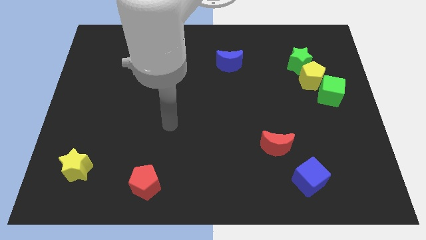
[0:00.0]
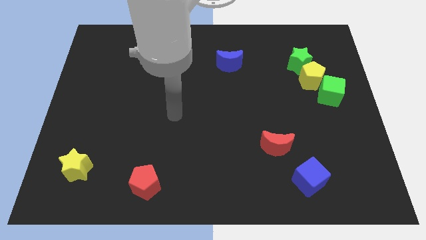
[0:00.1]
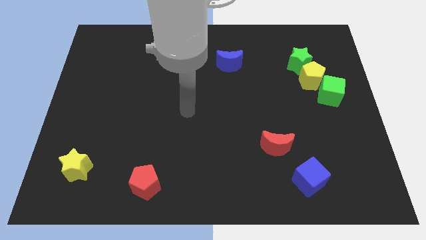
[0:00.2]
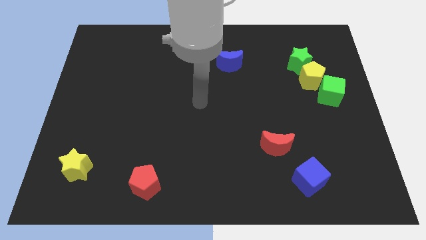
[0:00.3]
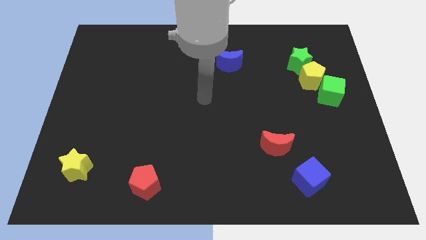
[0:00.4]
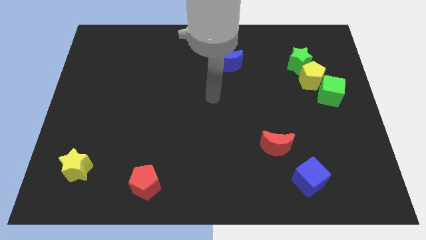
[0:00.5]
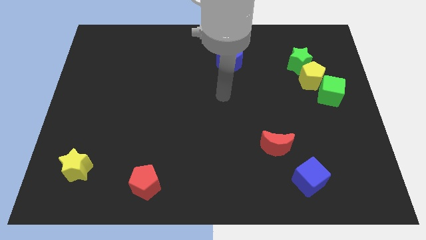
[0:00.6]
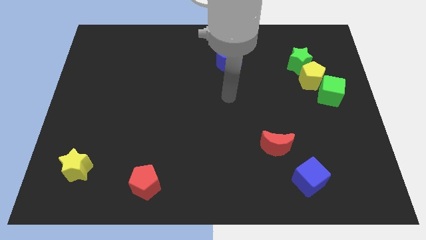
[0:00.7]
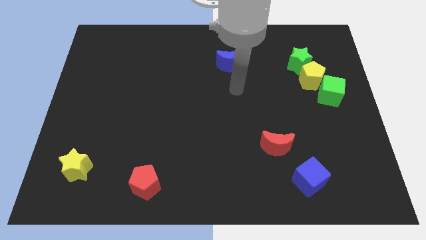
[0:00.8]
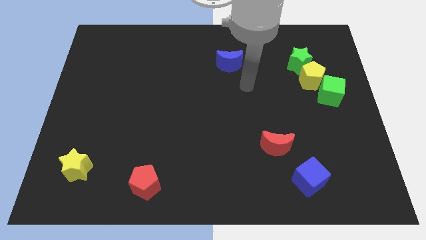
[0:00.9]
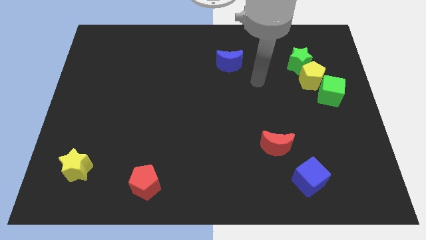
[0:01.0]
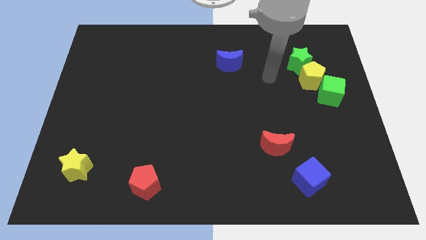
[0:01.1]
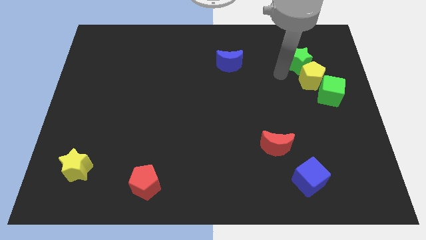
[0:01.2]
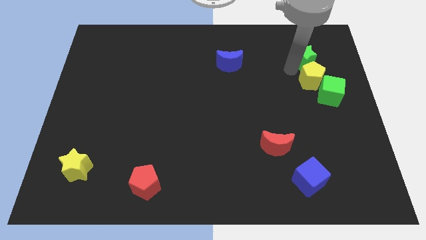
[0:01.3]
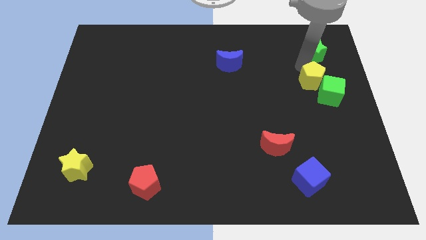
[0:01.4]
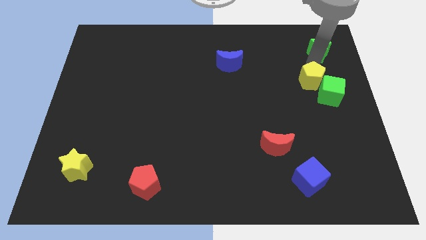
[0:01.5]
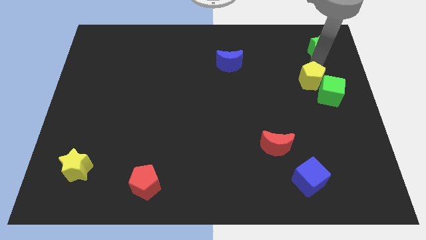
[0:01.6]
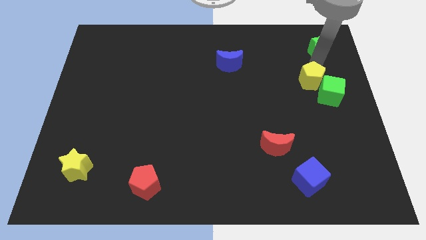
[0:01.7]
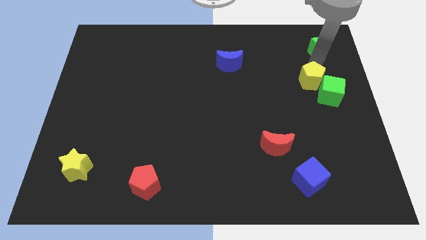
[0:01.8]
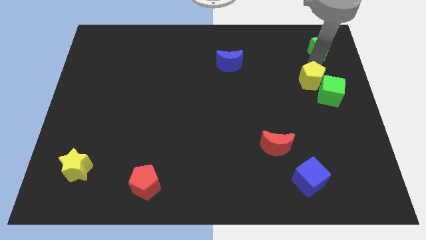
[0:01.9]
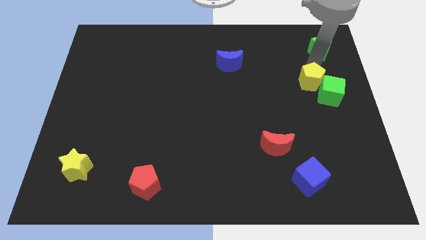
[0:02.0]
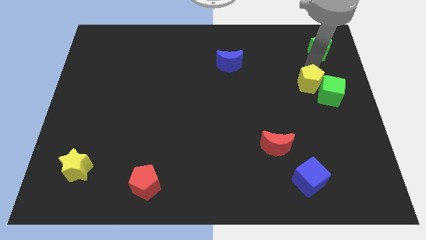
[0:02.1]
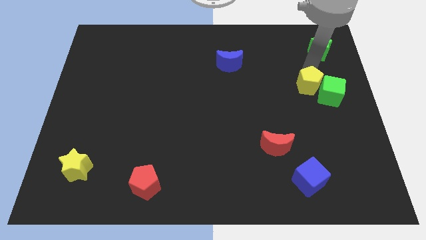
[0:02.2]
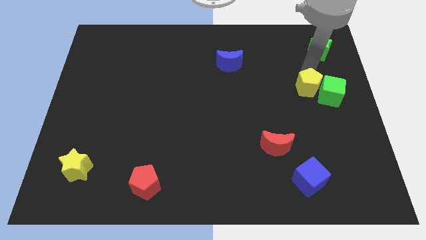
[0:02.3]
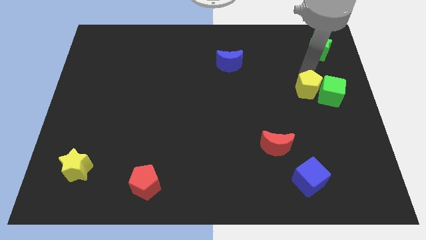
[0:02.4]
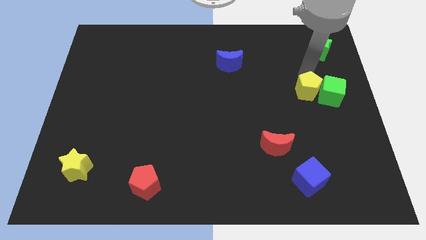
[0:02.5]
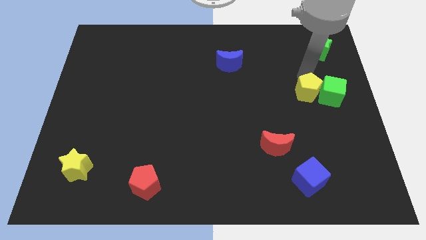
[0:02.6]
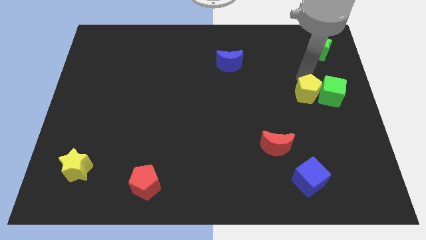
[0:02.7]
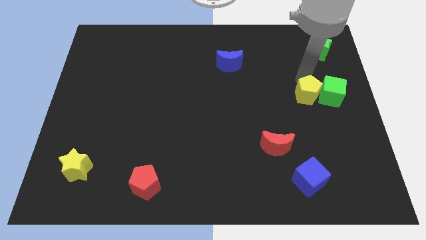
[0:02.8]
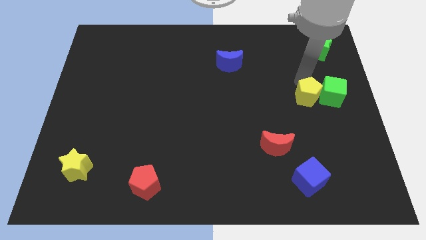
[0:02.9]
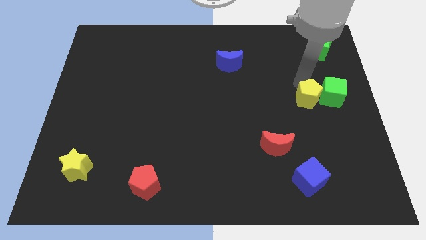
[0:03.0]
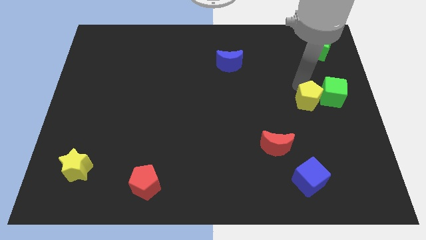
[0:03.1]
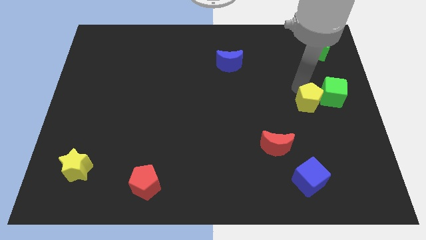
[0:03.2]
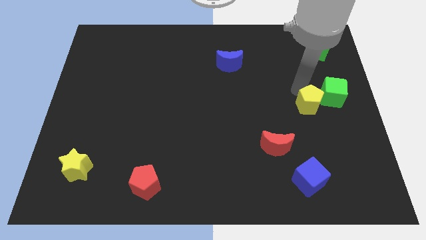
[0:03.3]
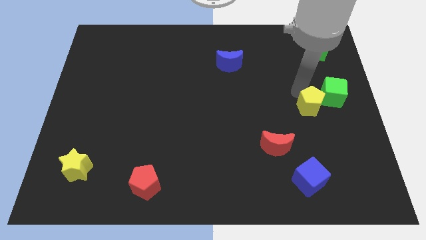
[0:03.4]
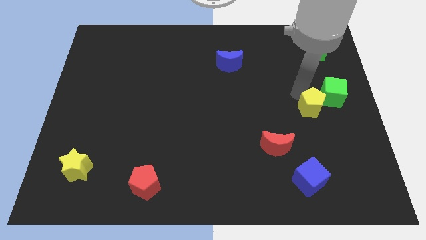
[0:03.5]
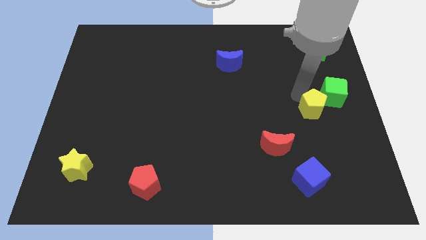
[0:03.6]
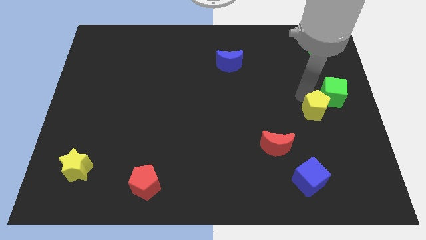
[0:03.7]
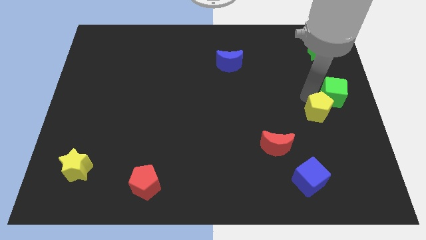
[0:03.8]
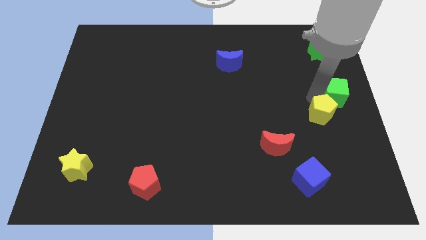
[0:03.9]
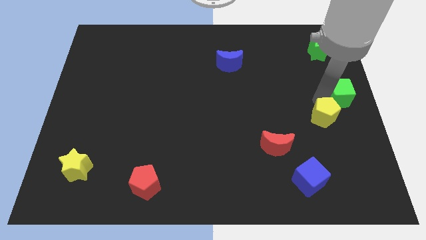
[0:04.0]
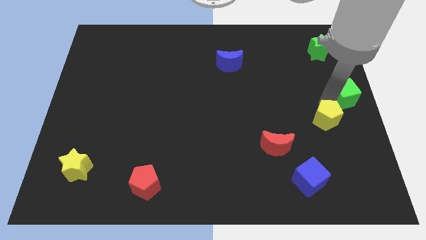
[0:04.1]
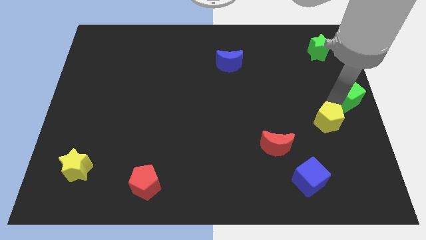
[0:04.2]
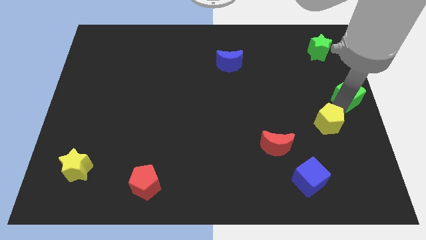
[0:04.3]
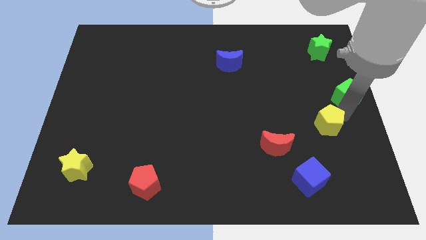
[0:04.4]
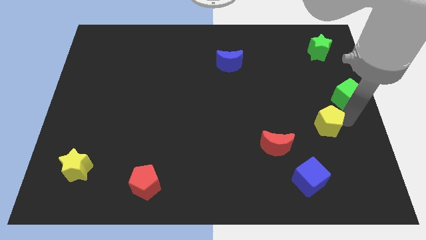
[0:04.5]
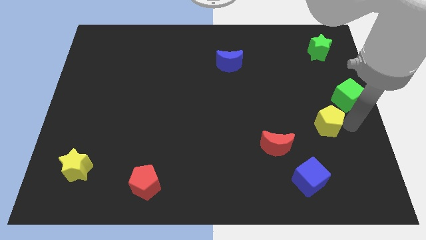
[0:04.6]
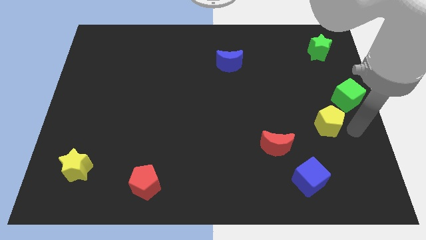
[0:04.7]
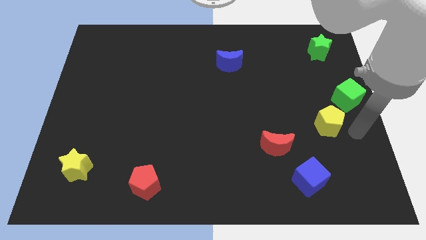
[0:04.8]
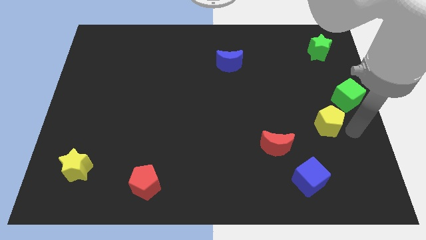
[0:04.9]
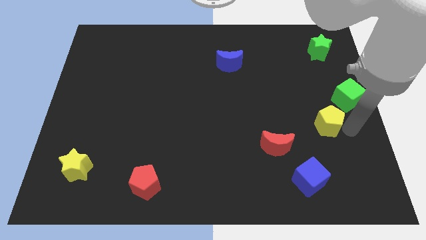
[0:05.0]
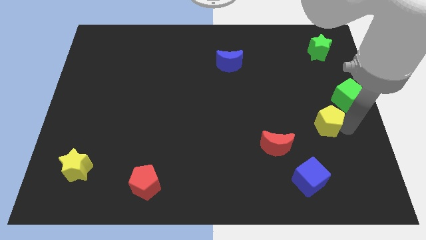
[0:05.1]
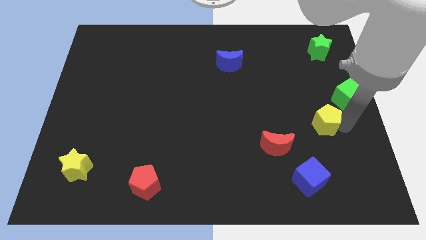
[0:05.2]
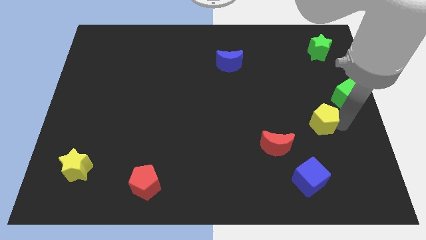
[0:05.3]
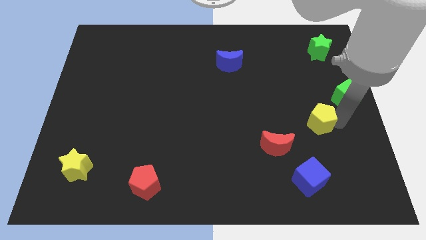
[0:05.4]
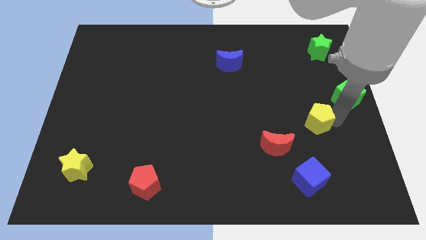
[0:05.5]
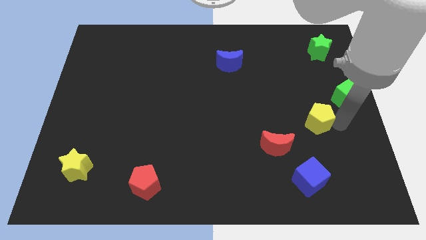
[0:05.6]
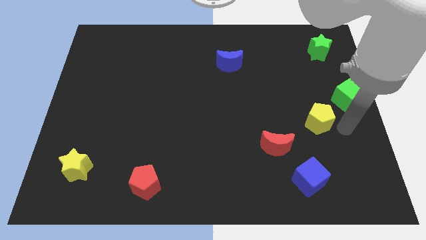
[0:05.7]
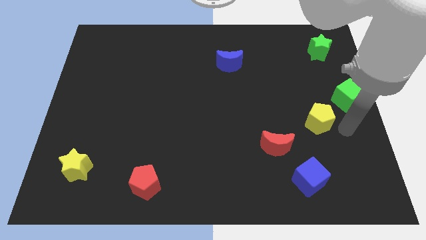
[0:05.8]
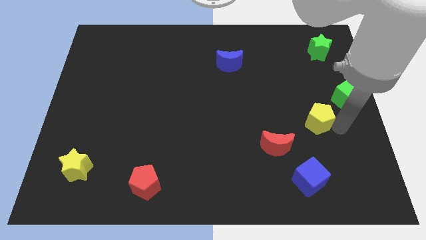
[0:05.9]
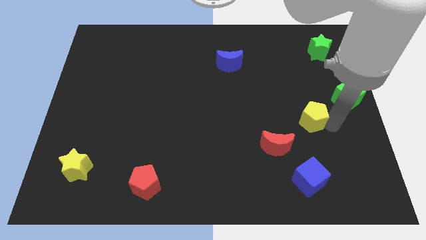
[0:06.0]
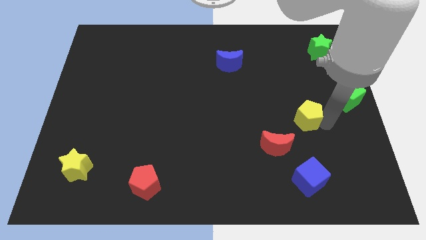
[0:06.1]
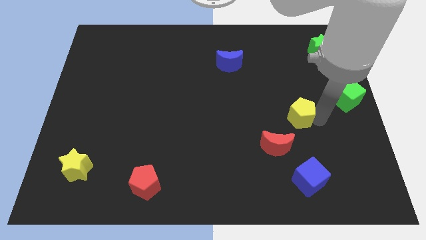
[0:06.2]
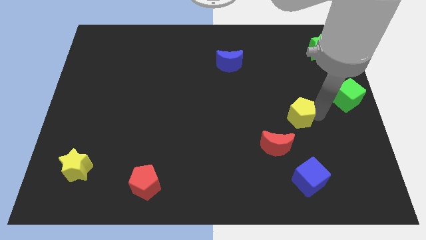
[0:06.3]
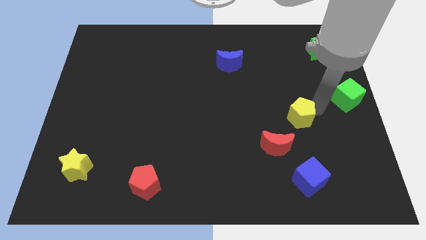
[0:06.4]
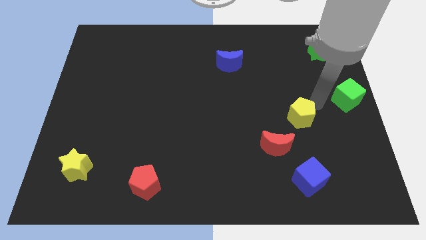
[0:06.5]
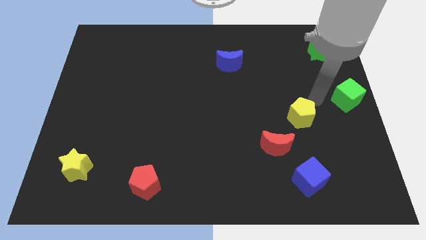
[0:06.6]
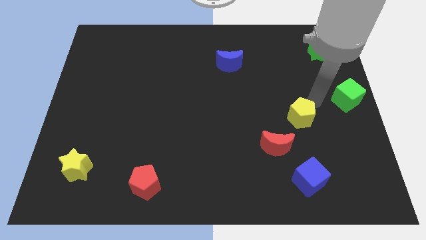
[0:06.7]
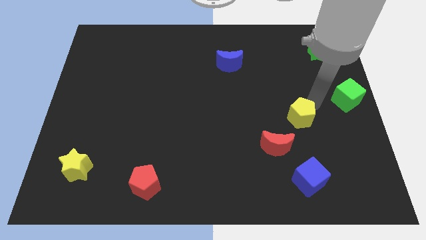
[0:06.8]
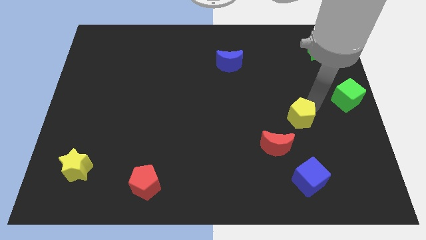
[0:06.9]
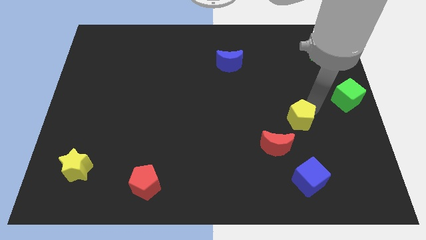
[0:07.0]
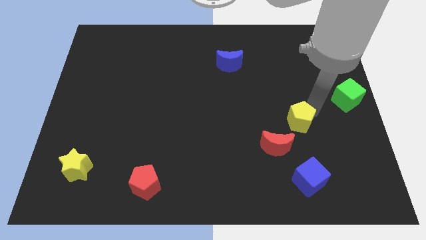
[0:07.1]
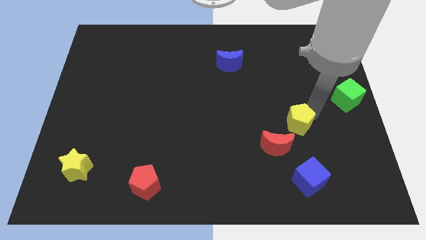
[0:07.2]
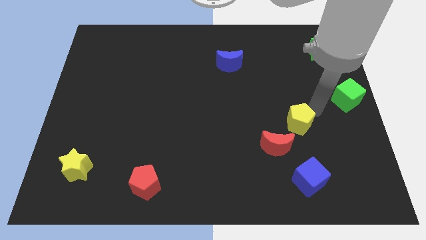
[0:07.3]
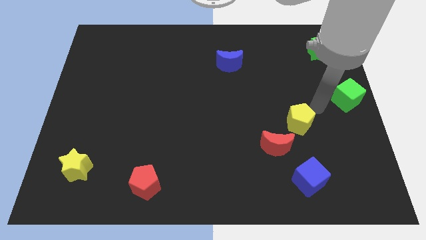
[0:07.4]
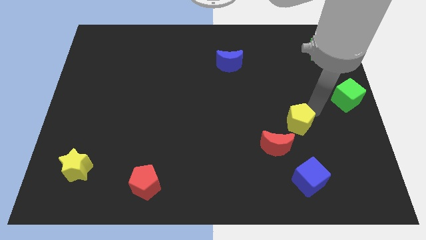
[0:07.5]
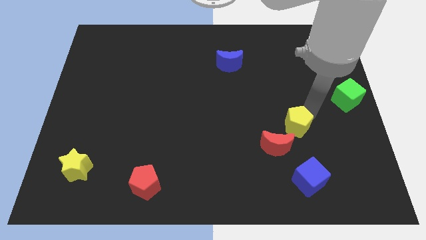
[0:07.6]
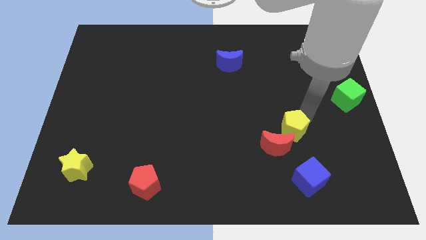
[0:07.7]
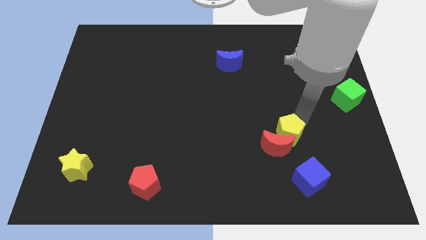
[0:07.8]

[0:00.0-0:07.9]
slide the yellow pentagon next to the red moon
